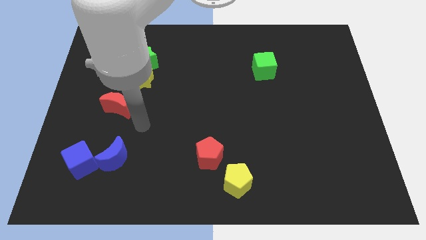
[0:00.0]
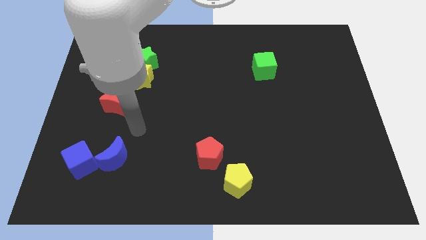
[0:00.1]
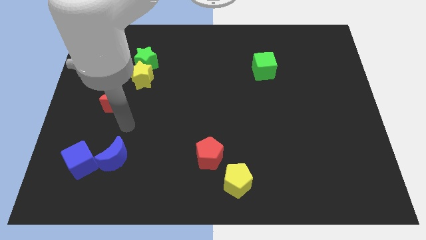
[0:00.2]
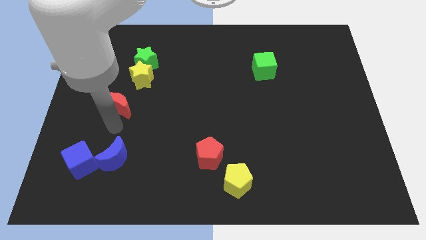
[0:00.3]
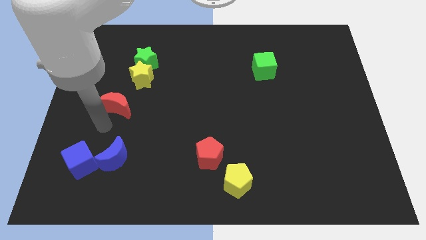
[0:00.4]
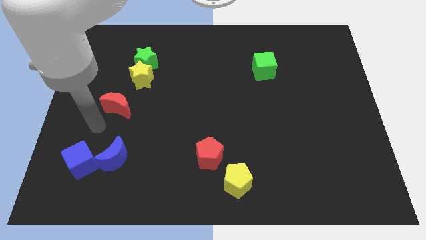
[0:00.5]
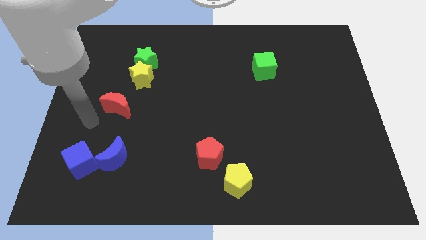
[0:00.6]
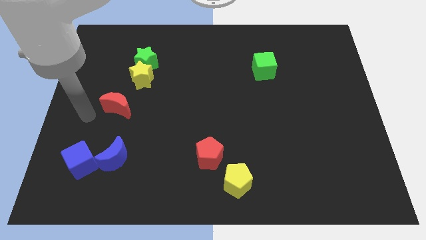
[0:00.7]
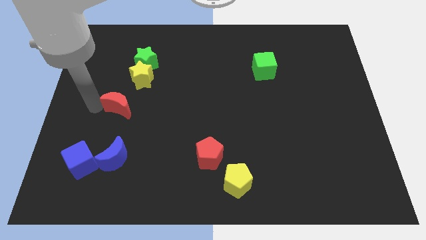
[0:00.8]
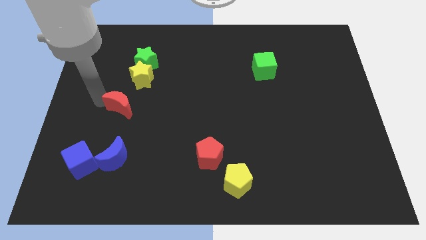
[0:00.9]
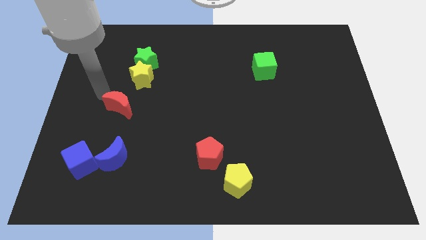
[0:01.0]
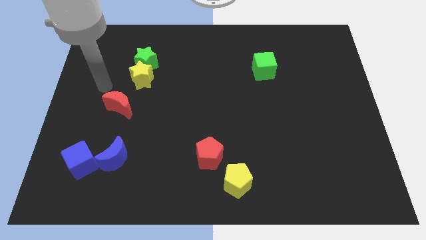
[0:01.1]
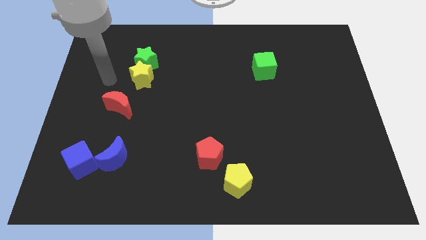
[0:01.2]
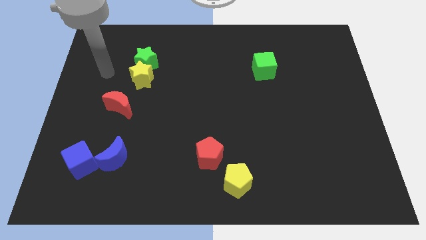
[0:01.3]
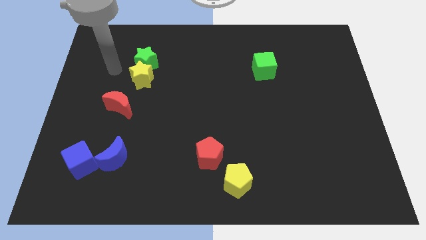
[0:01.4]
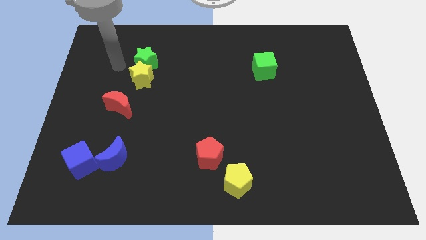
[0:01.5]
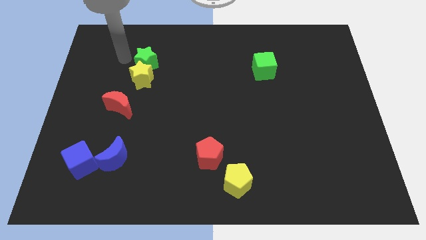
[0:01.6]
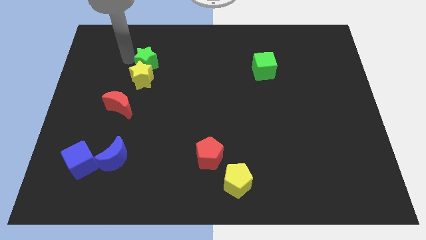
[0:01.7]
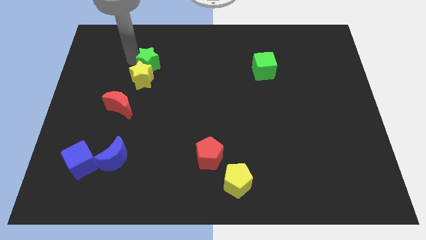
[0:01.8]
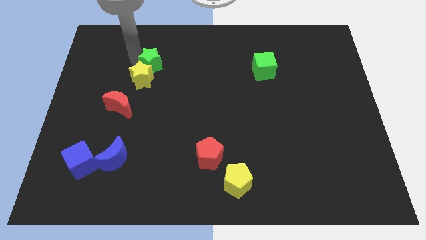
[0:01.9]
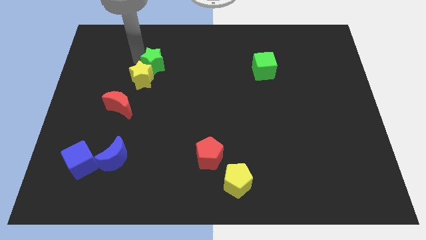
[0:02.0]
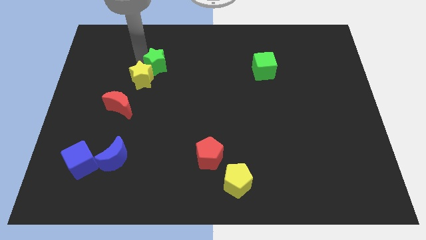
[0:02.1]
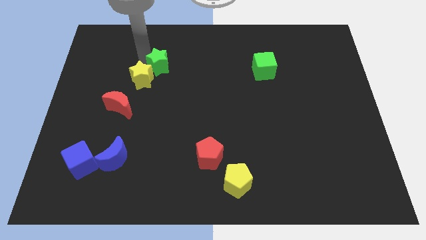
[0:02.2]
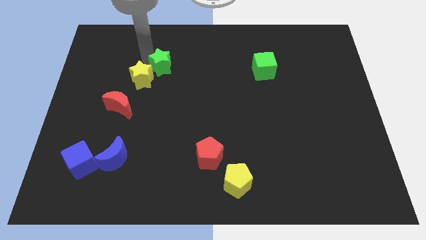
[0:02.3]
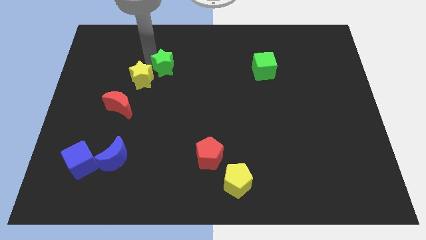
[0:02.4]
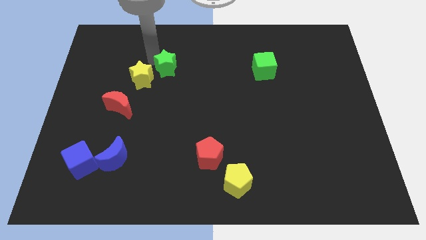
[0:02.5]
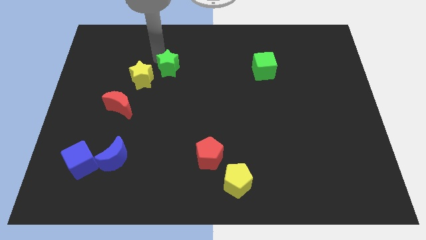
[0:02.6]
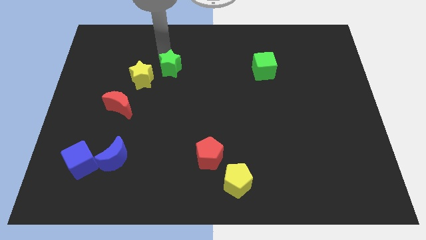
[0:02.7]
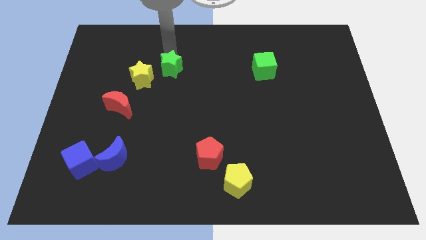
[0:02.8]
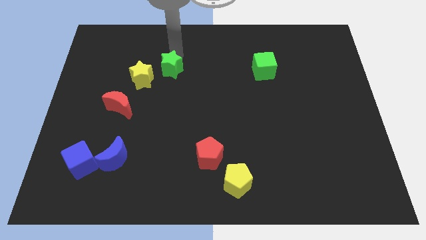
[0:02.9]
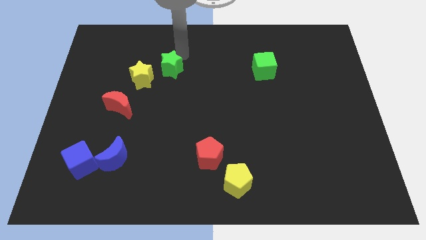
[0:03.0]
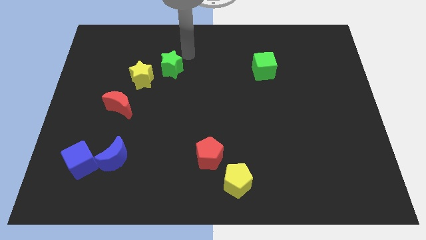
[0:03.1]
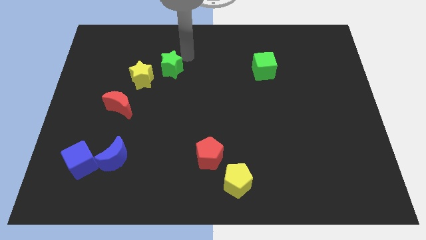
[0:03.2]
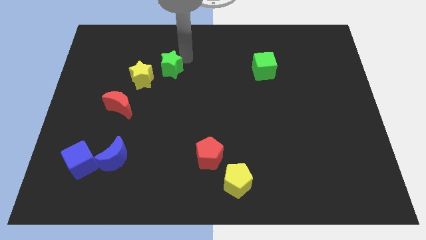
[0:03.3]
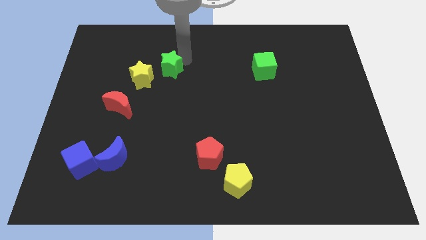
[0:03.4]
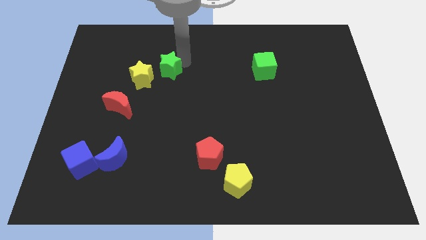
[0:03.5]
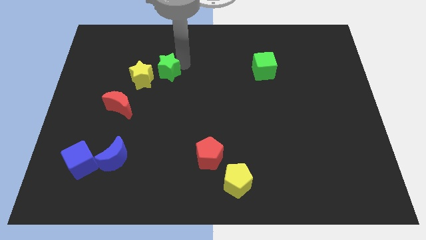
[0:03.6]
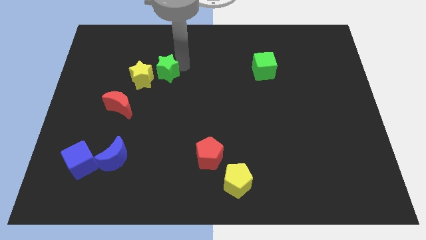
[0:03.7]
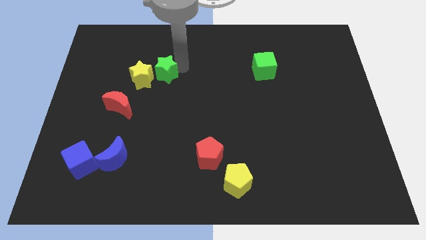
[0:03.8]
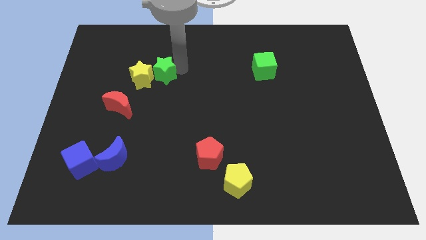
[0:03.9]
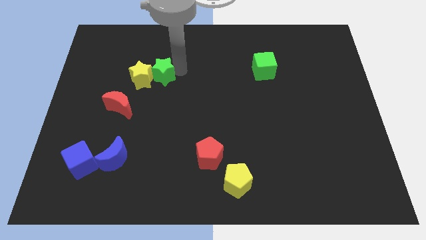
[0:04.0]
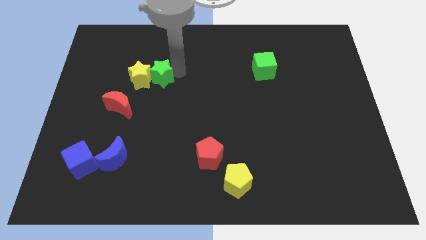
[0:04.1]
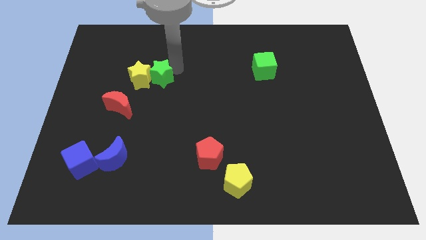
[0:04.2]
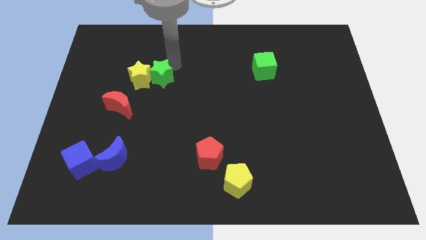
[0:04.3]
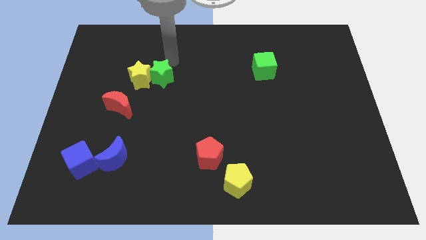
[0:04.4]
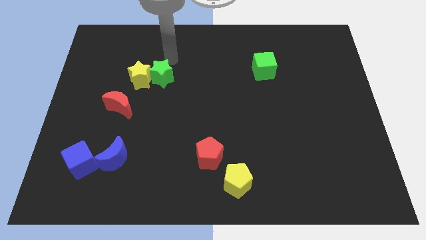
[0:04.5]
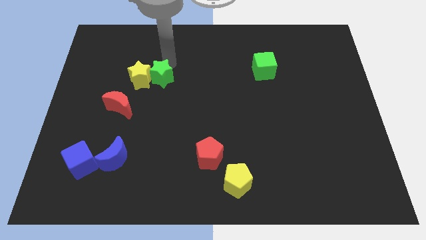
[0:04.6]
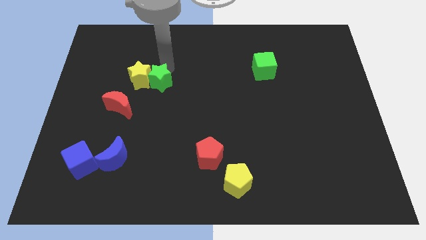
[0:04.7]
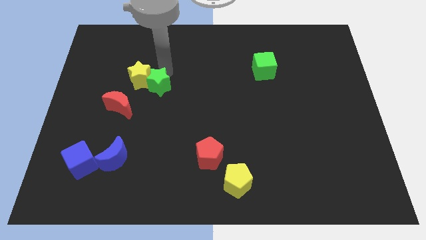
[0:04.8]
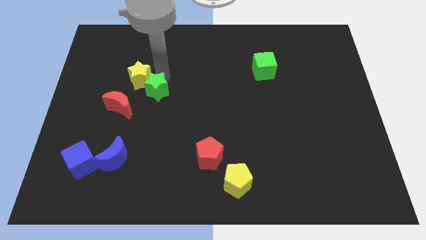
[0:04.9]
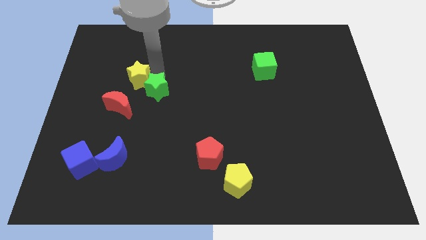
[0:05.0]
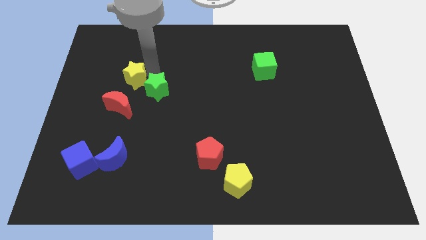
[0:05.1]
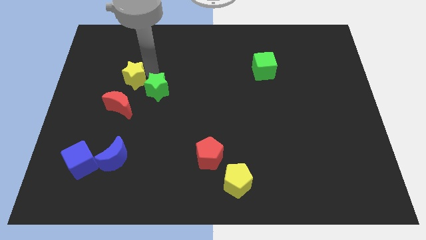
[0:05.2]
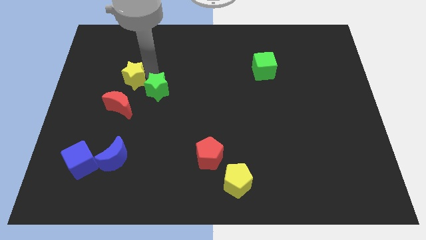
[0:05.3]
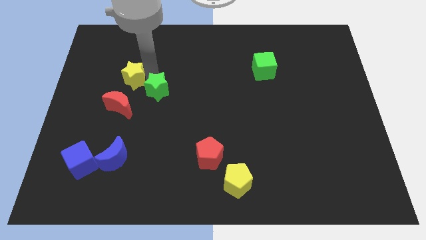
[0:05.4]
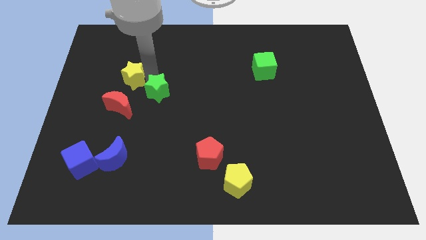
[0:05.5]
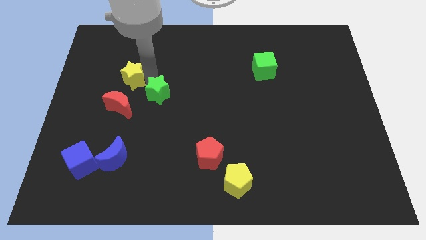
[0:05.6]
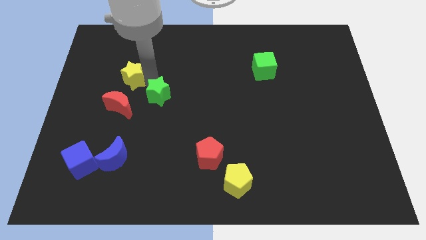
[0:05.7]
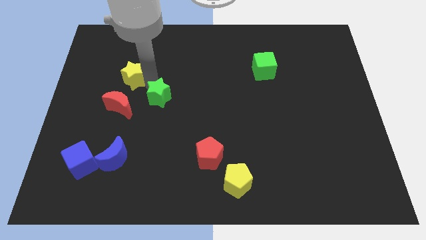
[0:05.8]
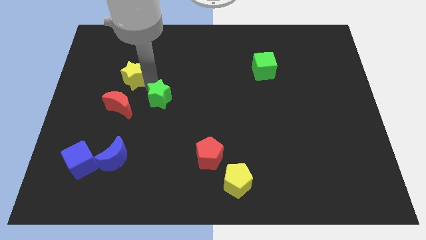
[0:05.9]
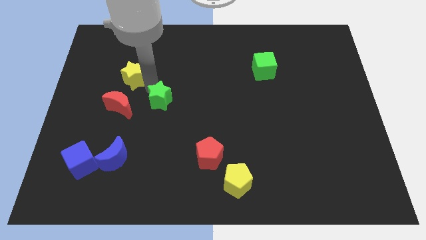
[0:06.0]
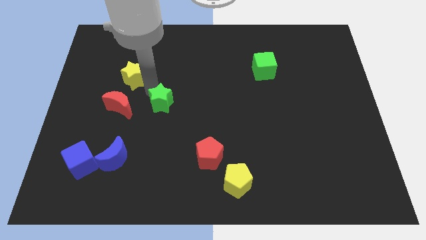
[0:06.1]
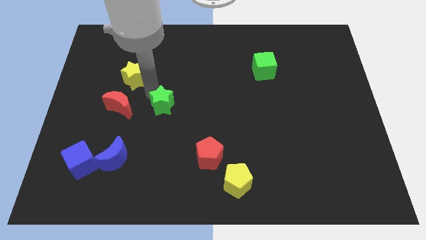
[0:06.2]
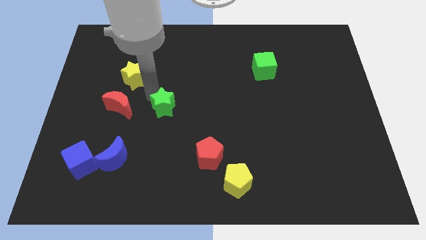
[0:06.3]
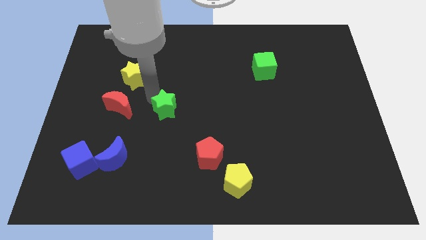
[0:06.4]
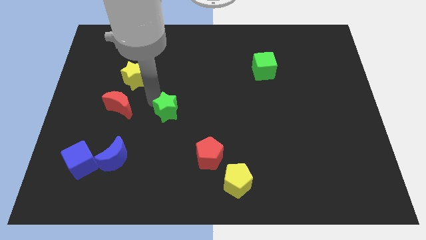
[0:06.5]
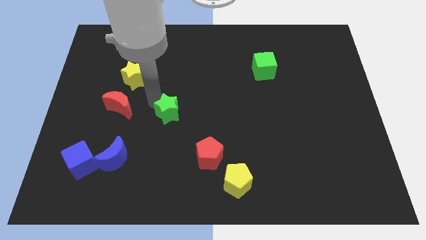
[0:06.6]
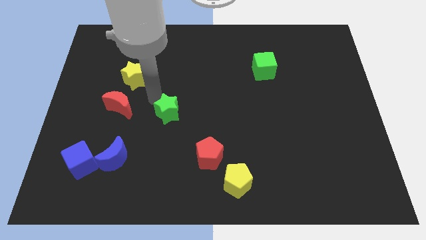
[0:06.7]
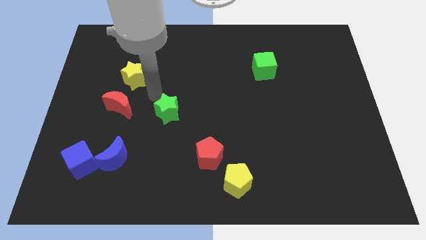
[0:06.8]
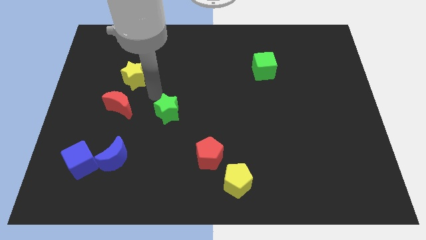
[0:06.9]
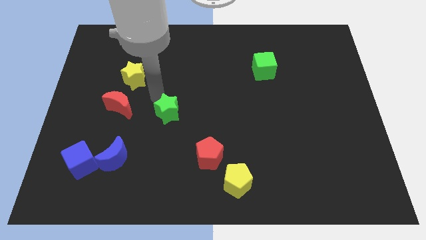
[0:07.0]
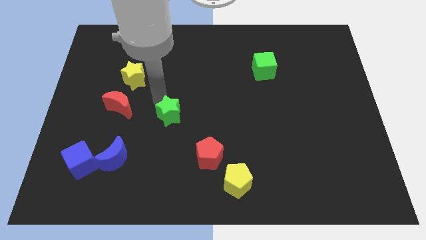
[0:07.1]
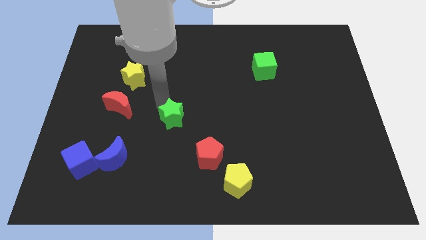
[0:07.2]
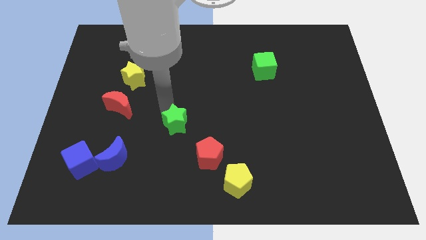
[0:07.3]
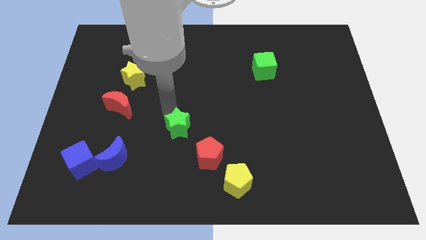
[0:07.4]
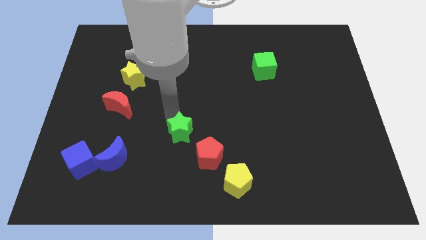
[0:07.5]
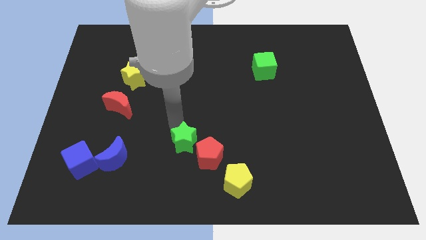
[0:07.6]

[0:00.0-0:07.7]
push the green star to the red pentagon
